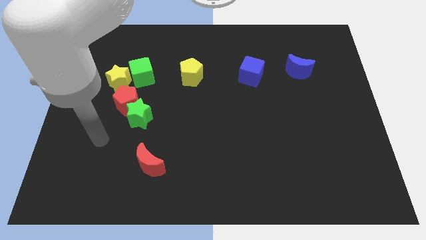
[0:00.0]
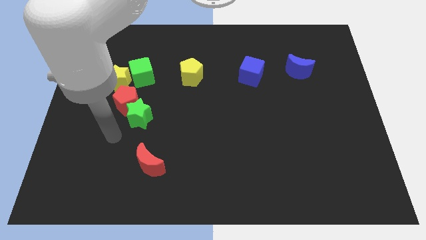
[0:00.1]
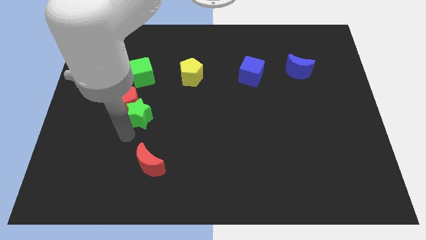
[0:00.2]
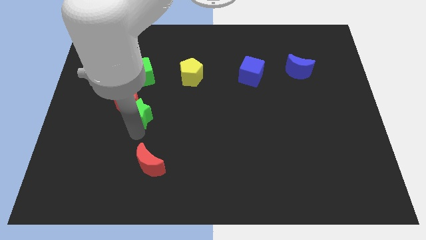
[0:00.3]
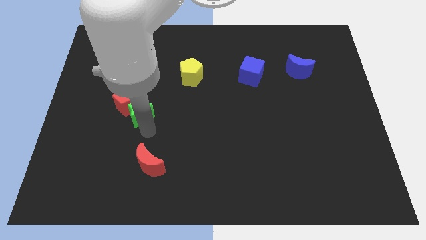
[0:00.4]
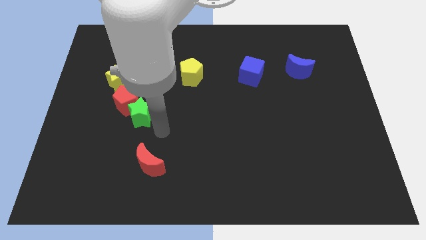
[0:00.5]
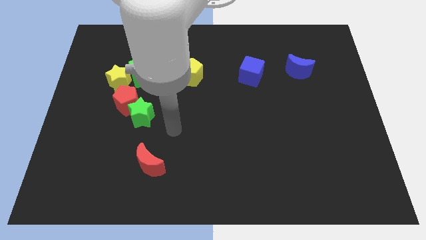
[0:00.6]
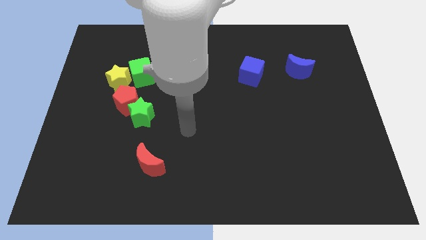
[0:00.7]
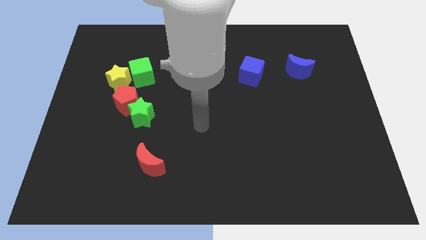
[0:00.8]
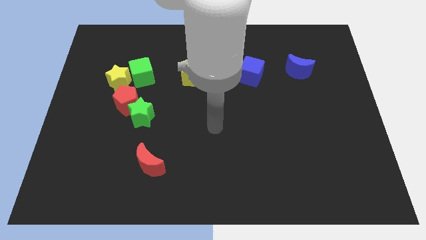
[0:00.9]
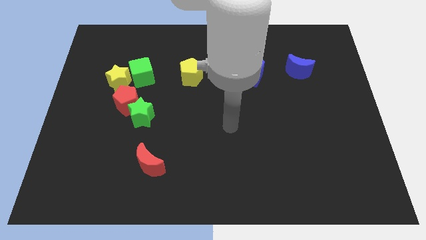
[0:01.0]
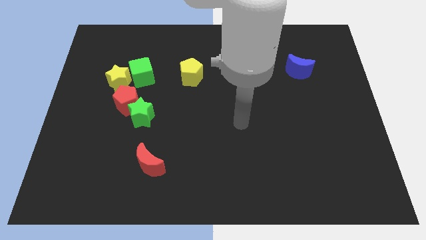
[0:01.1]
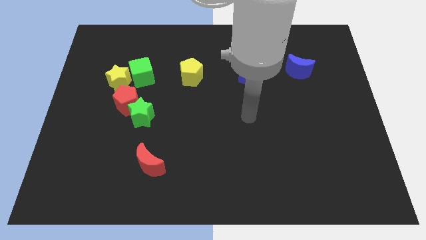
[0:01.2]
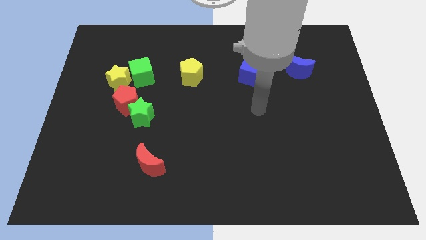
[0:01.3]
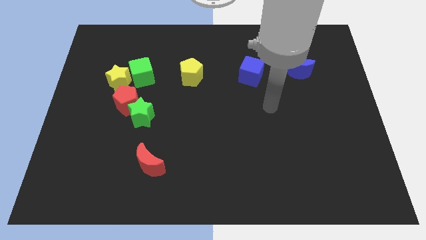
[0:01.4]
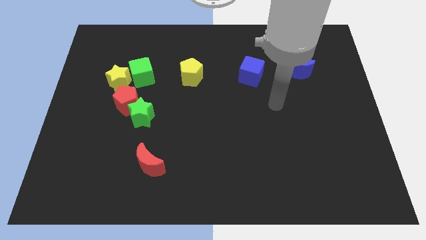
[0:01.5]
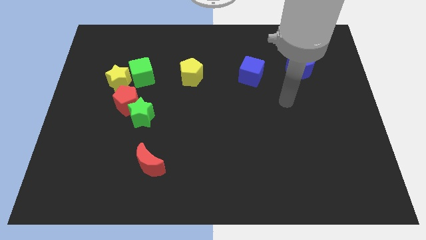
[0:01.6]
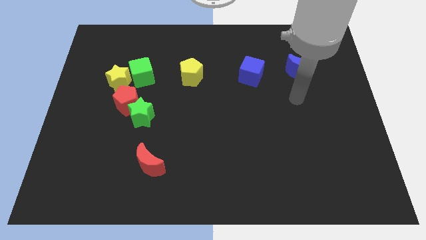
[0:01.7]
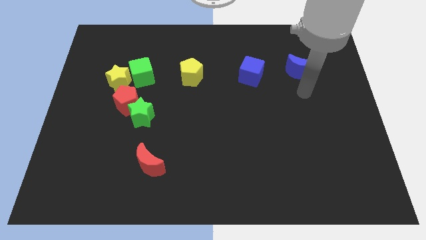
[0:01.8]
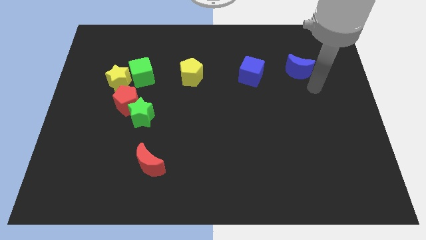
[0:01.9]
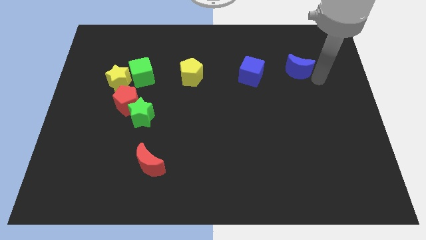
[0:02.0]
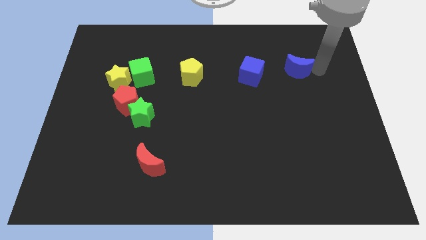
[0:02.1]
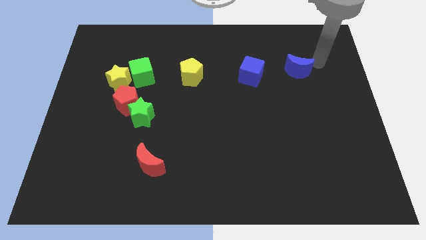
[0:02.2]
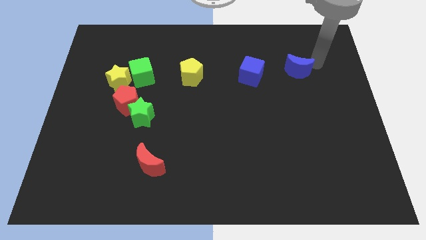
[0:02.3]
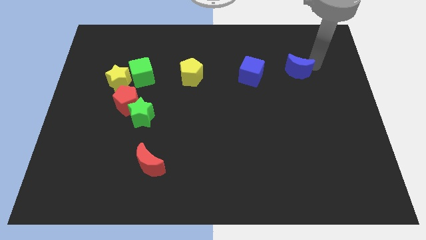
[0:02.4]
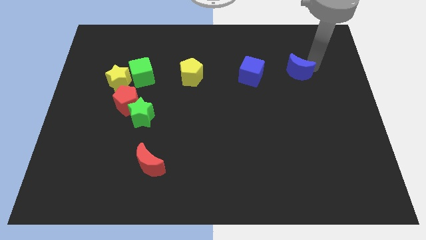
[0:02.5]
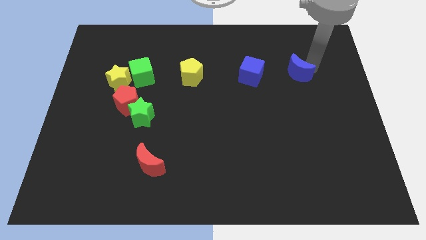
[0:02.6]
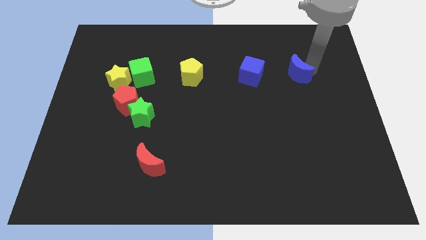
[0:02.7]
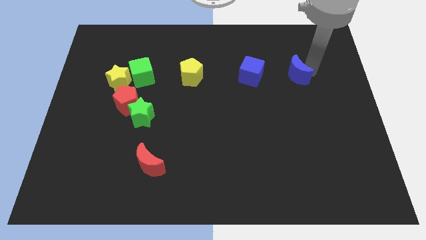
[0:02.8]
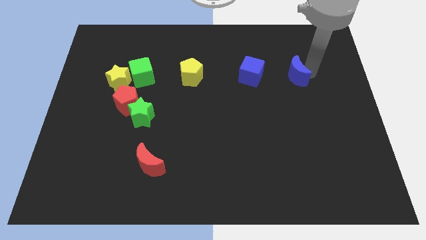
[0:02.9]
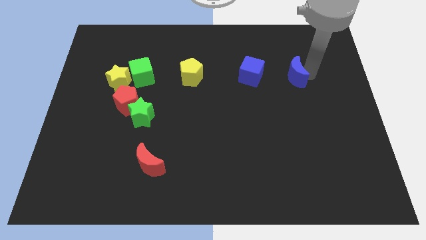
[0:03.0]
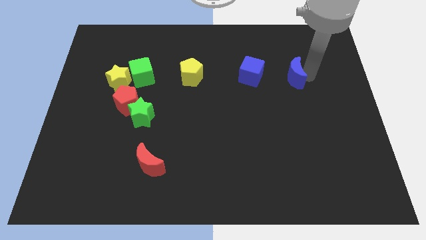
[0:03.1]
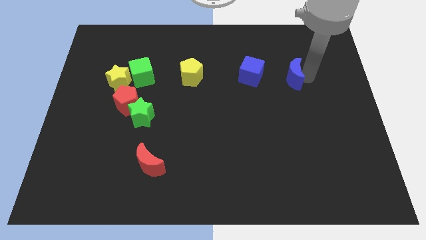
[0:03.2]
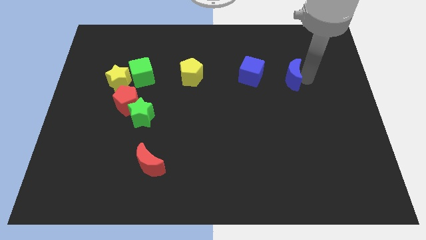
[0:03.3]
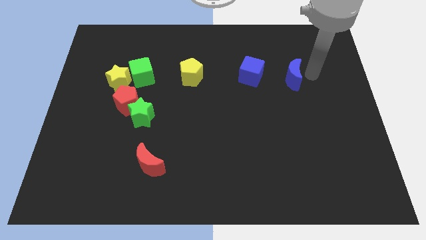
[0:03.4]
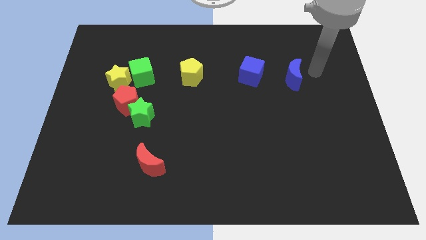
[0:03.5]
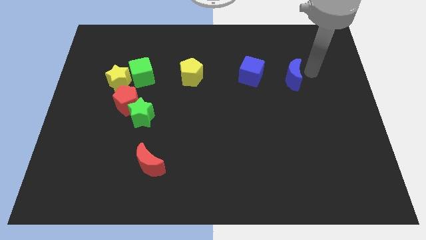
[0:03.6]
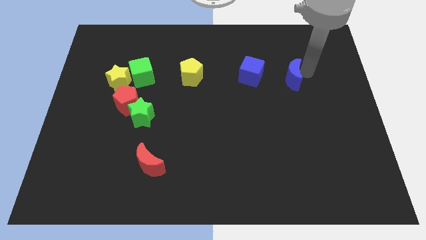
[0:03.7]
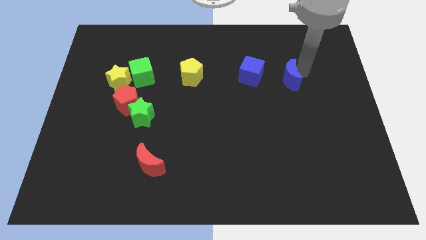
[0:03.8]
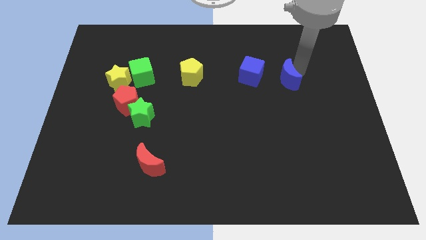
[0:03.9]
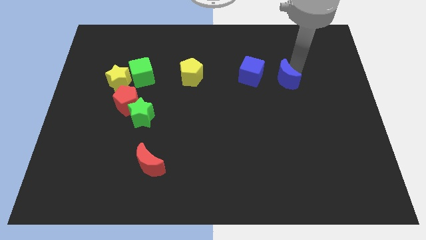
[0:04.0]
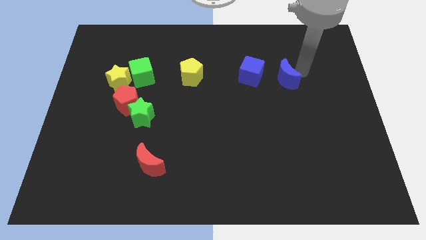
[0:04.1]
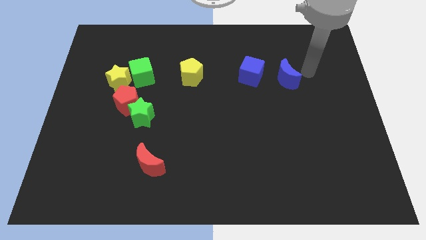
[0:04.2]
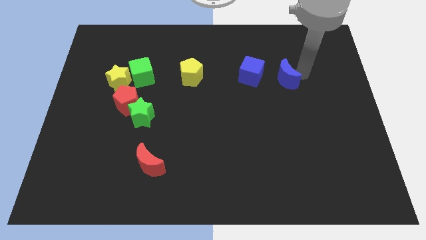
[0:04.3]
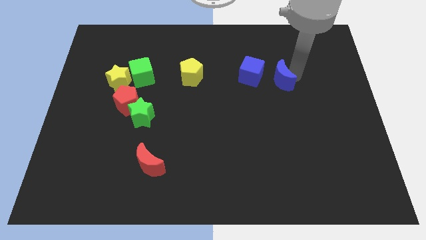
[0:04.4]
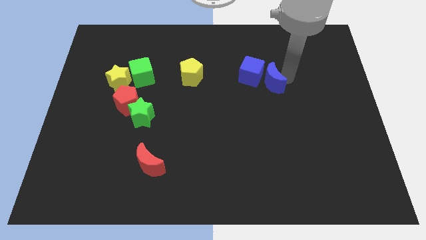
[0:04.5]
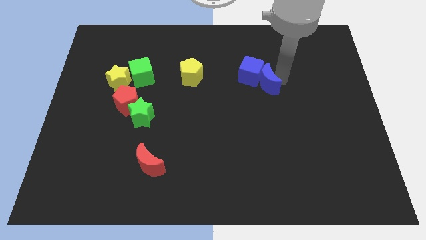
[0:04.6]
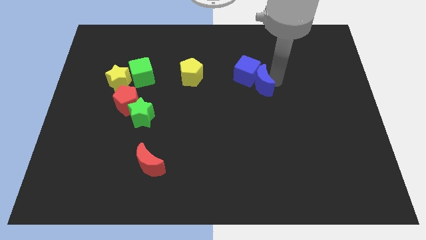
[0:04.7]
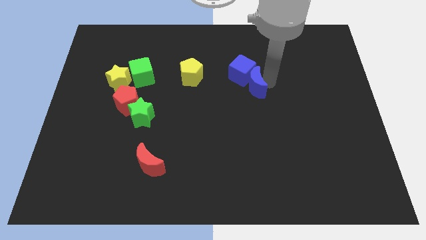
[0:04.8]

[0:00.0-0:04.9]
put the blue moon to the center of the board

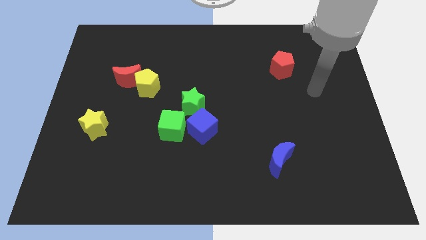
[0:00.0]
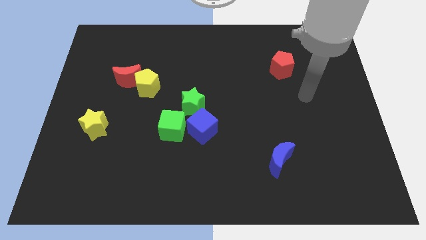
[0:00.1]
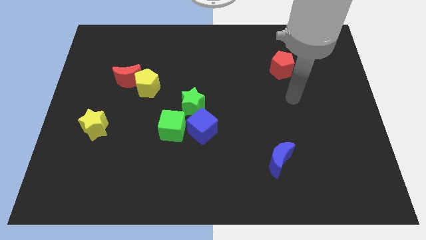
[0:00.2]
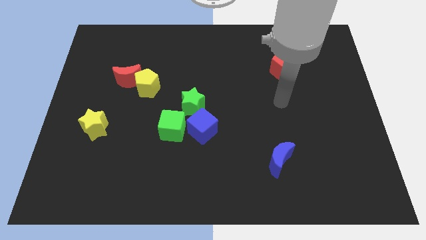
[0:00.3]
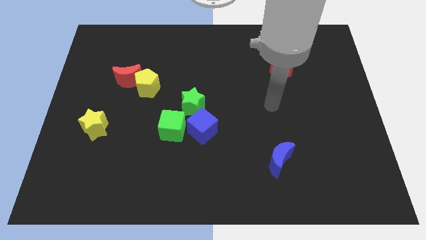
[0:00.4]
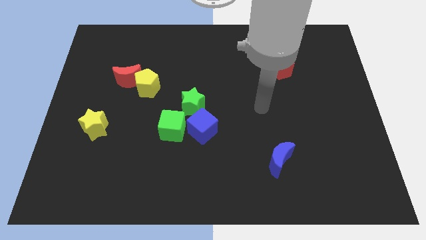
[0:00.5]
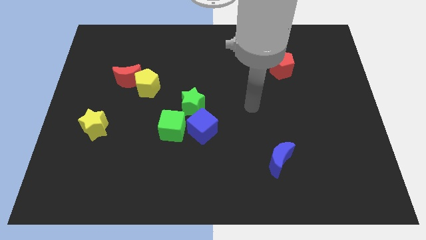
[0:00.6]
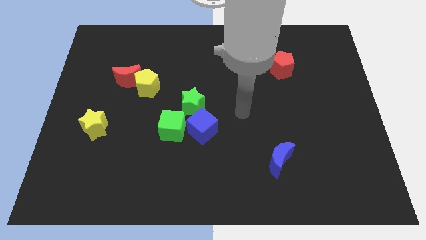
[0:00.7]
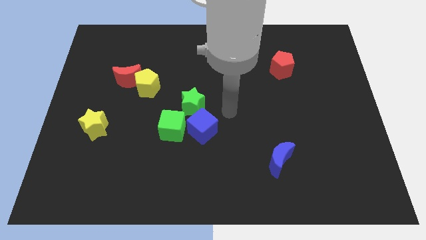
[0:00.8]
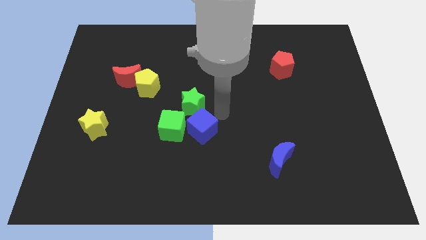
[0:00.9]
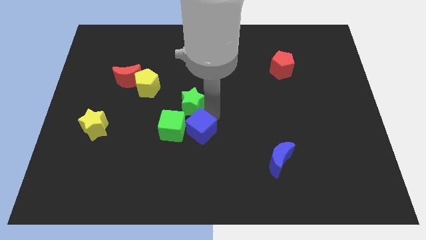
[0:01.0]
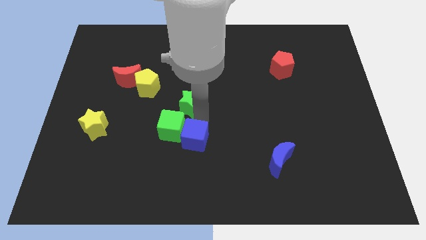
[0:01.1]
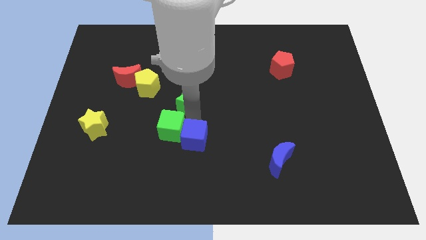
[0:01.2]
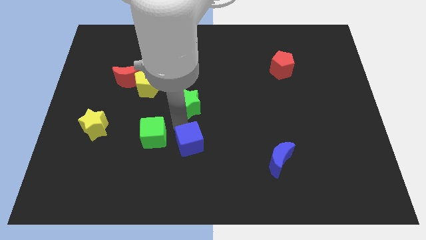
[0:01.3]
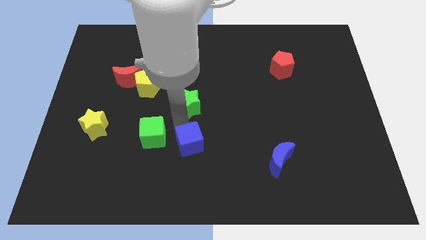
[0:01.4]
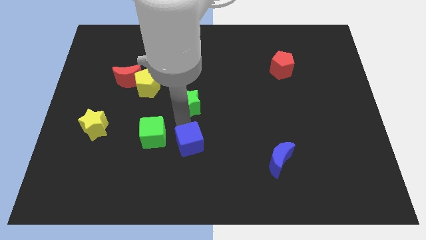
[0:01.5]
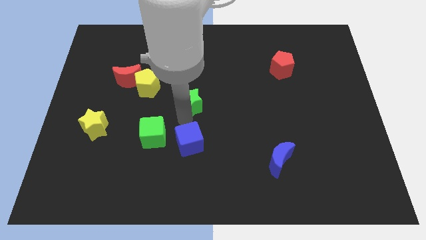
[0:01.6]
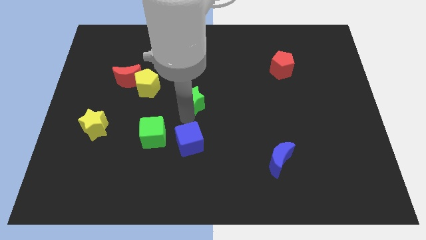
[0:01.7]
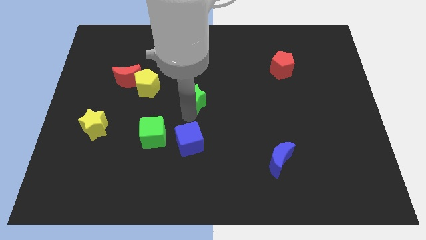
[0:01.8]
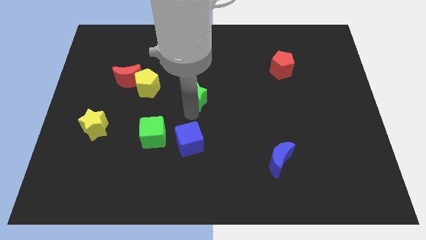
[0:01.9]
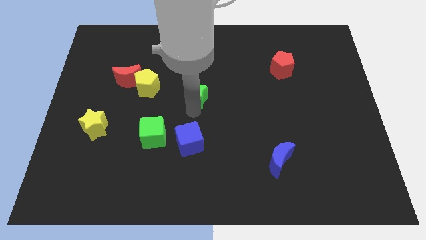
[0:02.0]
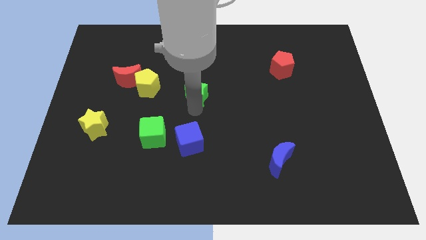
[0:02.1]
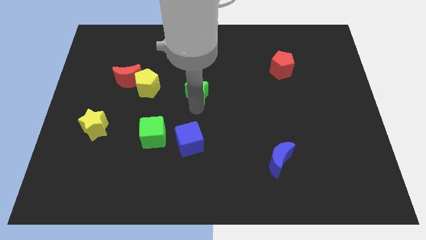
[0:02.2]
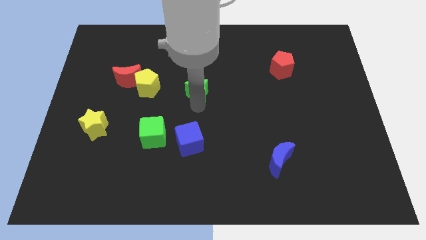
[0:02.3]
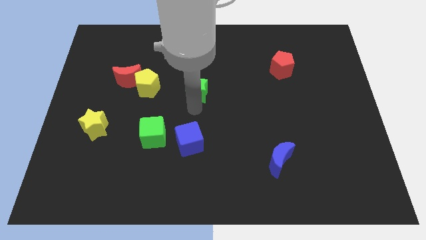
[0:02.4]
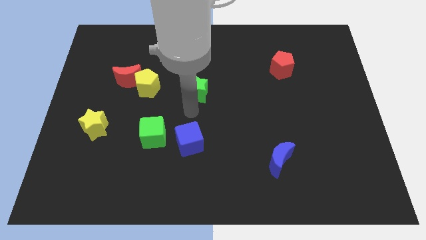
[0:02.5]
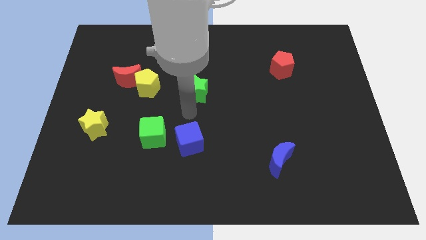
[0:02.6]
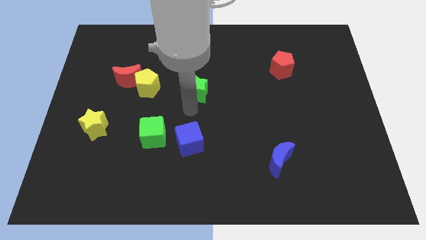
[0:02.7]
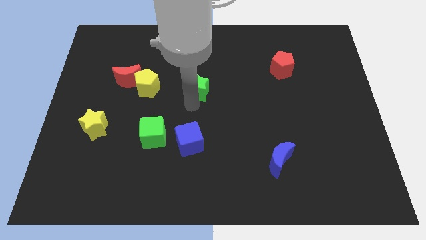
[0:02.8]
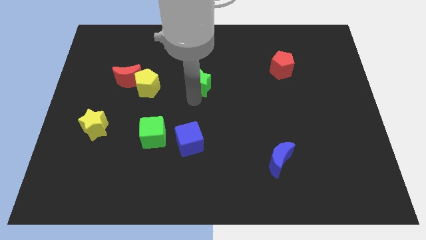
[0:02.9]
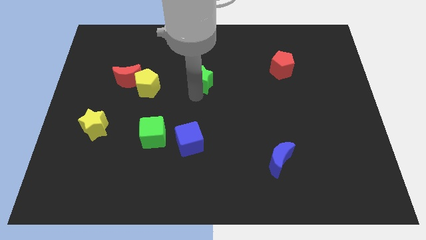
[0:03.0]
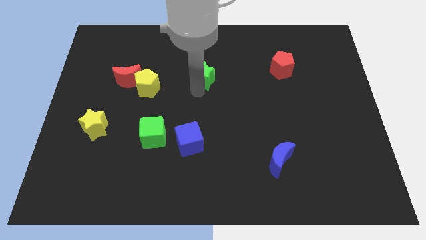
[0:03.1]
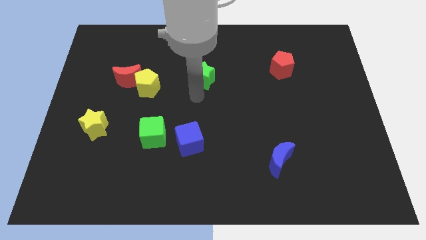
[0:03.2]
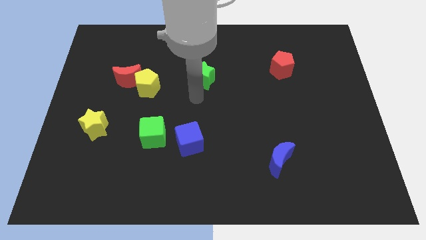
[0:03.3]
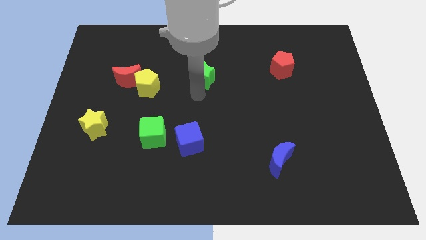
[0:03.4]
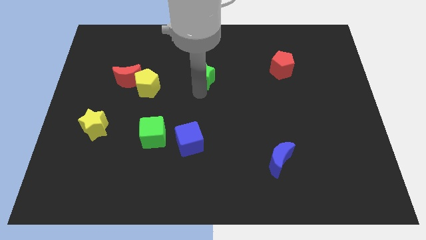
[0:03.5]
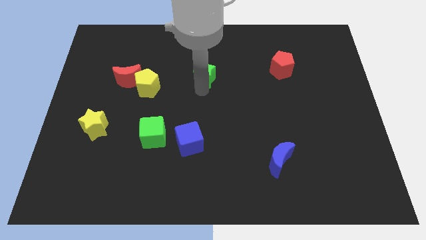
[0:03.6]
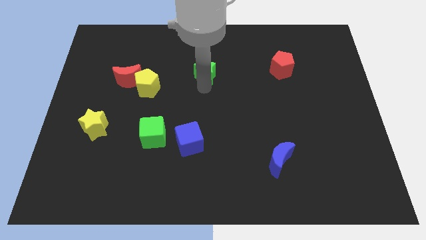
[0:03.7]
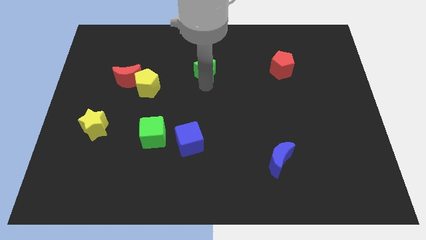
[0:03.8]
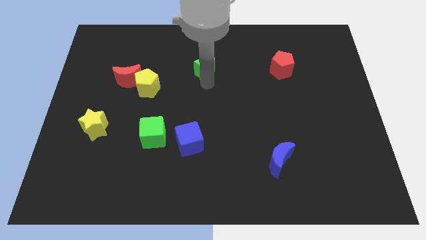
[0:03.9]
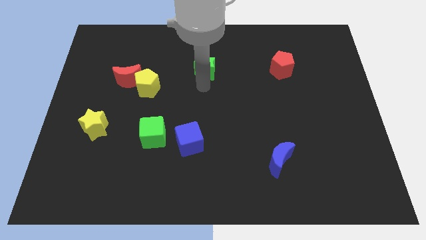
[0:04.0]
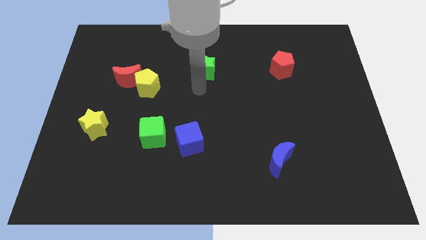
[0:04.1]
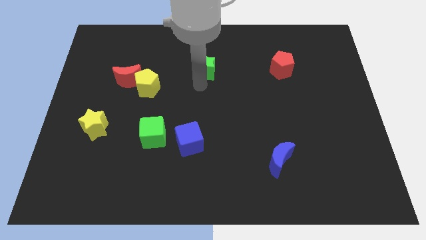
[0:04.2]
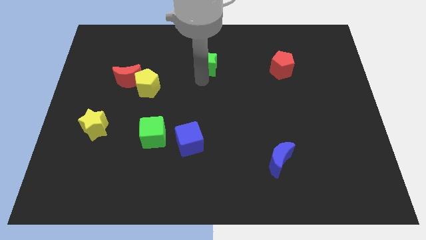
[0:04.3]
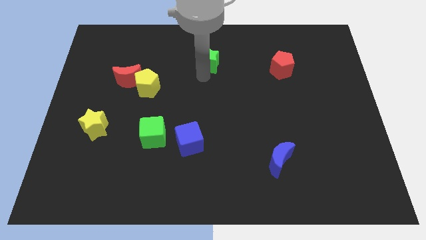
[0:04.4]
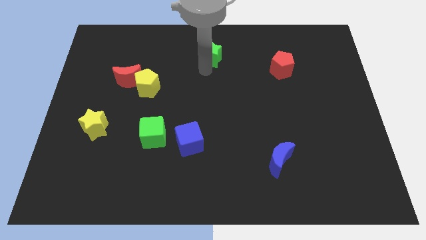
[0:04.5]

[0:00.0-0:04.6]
slide the green star to the top side
